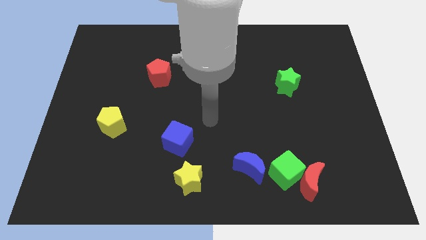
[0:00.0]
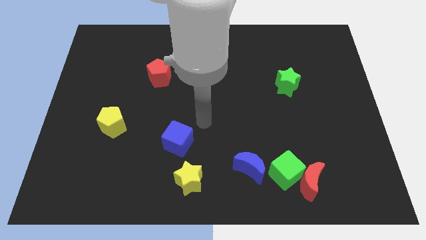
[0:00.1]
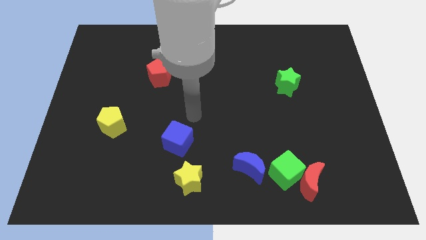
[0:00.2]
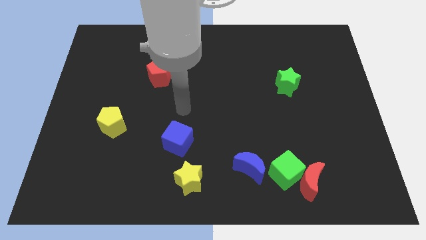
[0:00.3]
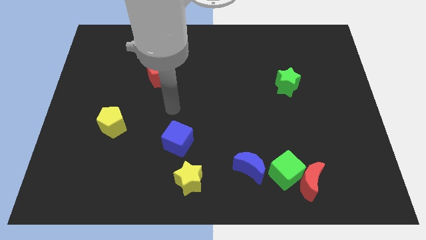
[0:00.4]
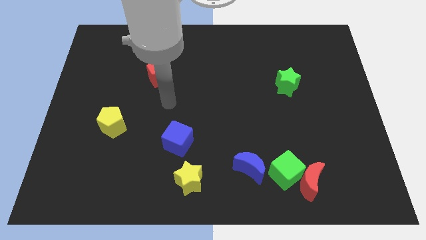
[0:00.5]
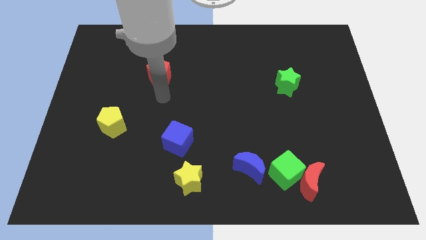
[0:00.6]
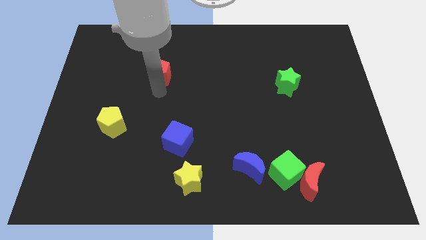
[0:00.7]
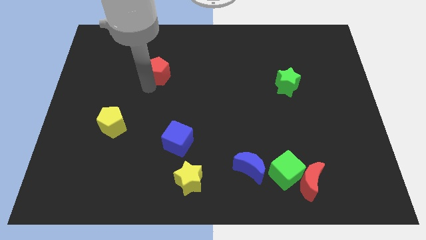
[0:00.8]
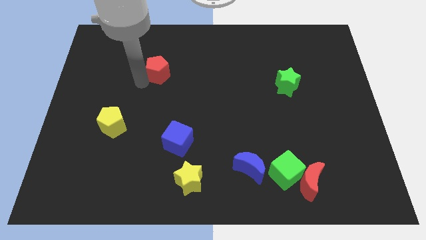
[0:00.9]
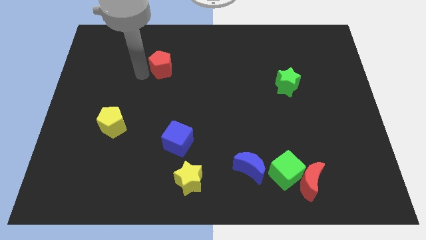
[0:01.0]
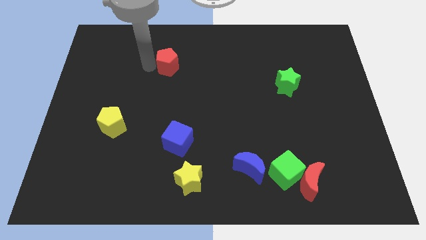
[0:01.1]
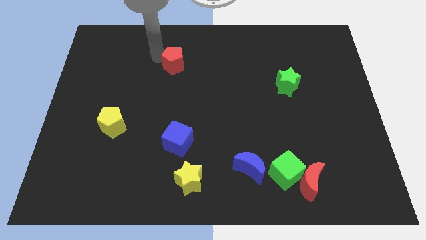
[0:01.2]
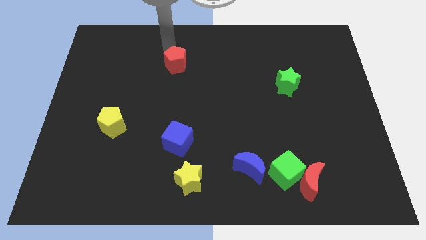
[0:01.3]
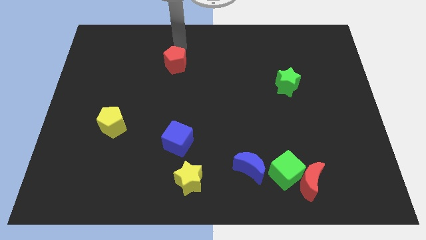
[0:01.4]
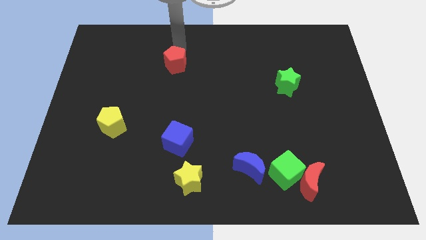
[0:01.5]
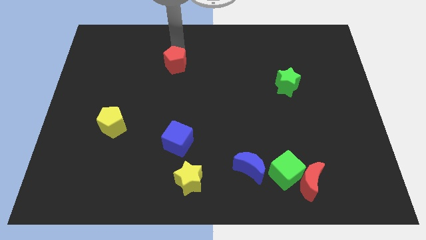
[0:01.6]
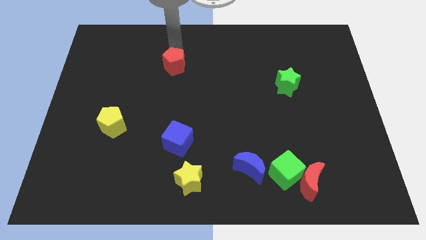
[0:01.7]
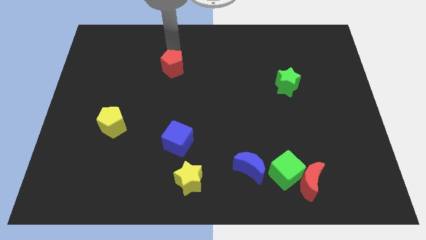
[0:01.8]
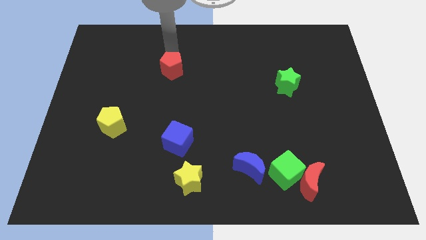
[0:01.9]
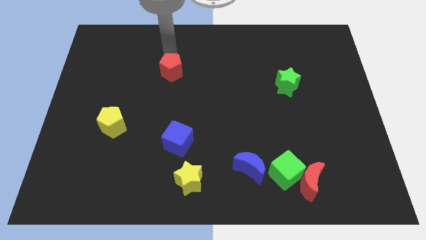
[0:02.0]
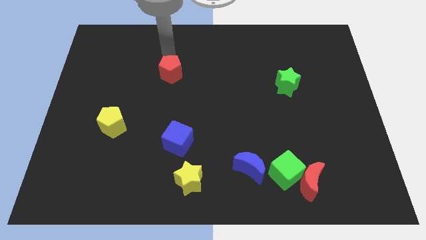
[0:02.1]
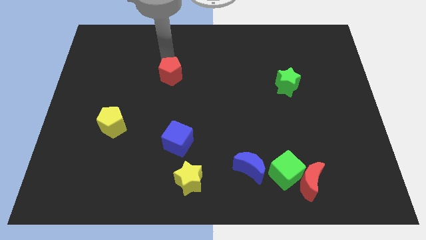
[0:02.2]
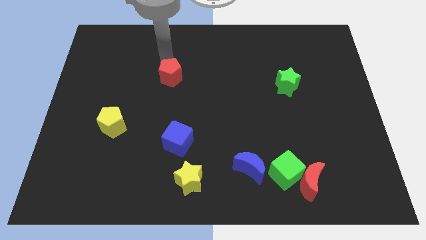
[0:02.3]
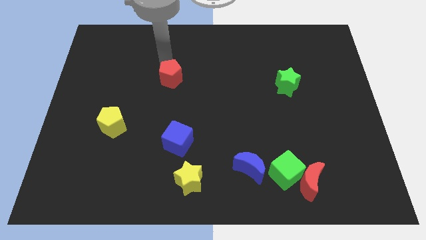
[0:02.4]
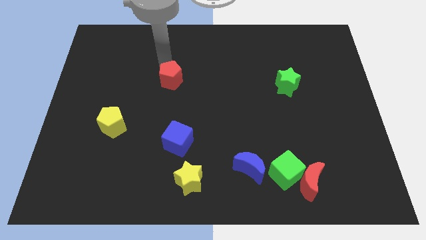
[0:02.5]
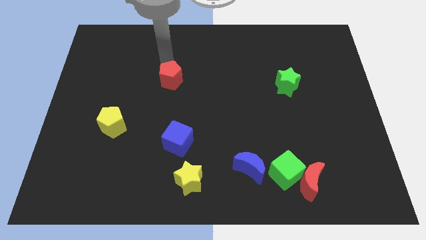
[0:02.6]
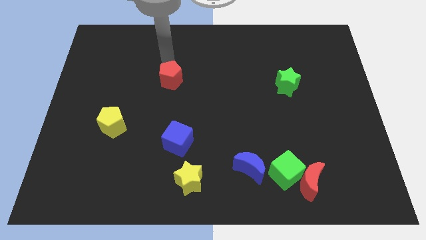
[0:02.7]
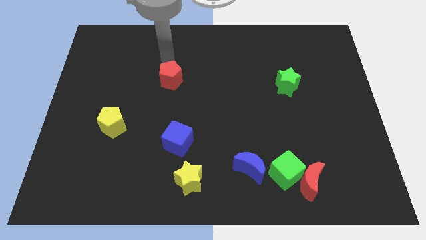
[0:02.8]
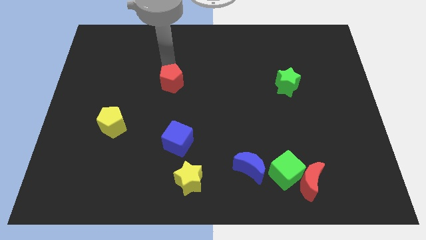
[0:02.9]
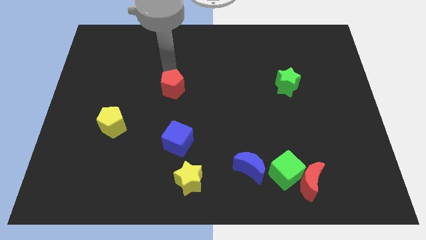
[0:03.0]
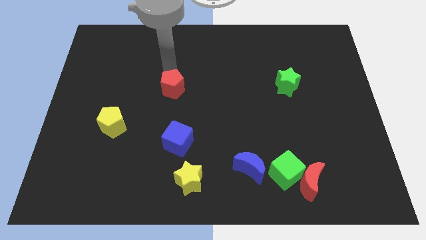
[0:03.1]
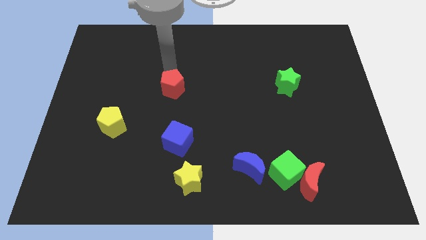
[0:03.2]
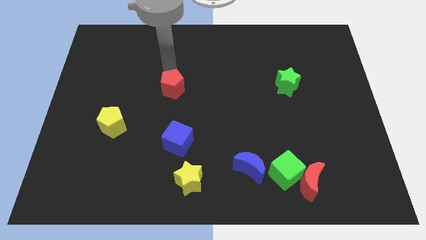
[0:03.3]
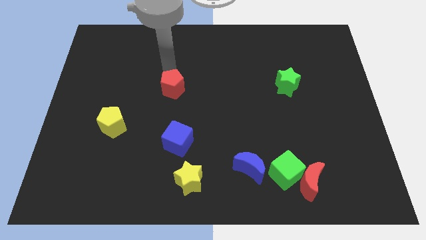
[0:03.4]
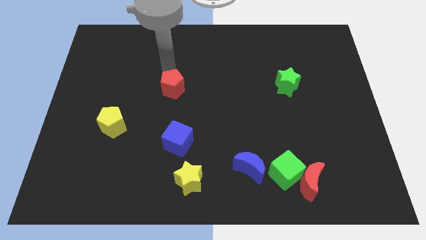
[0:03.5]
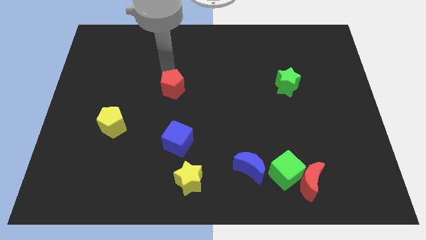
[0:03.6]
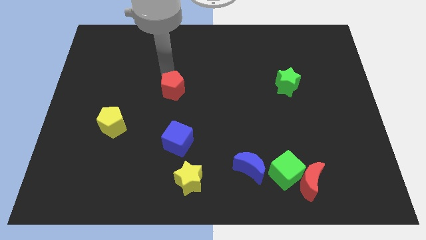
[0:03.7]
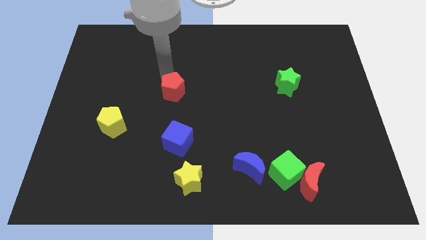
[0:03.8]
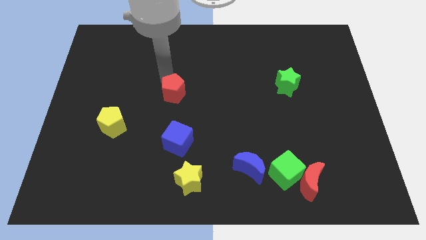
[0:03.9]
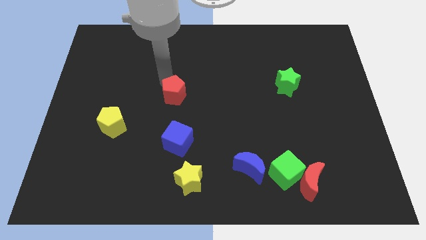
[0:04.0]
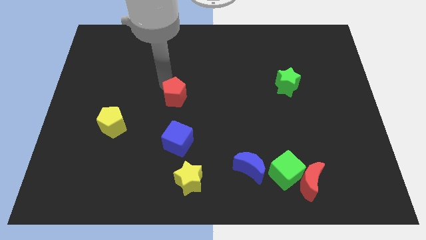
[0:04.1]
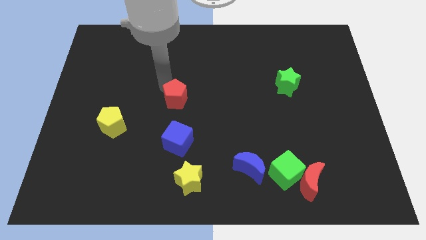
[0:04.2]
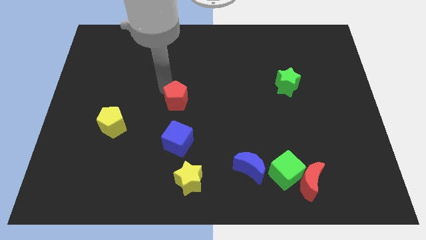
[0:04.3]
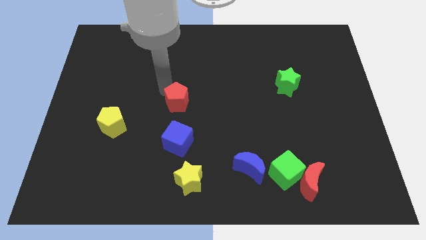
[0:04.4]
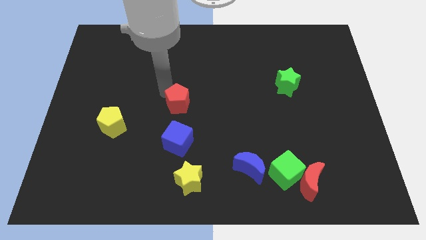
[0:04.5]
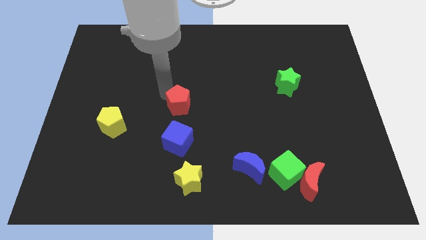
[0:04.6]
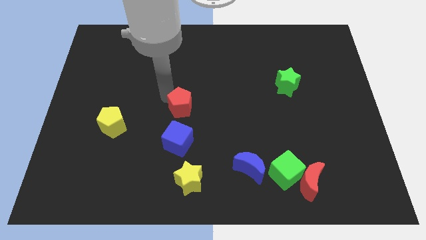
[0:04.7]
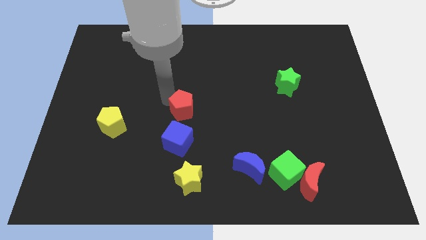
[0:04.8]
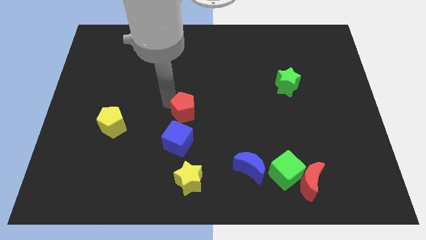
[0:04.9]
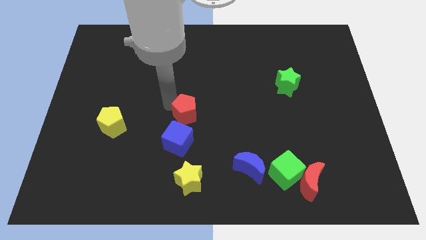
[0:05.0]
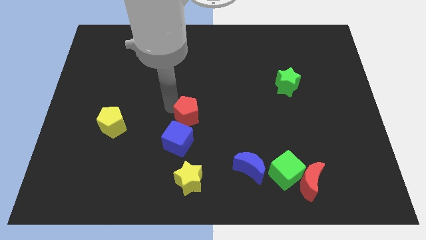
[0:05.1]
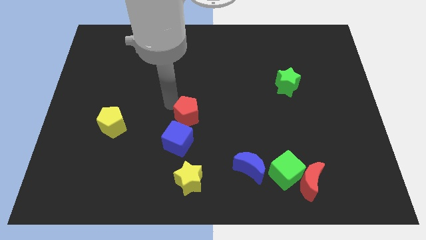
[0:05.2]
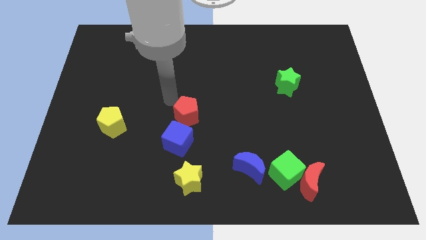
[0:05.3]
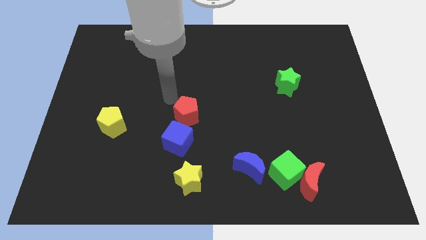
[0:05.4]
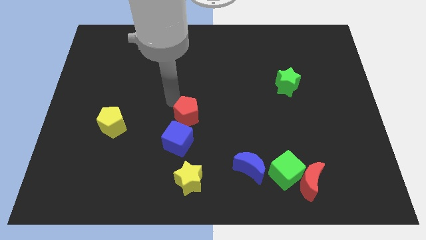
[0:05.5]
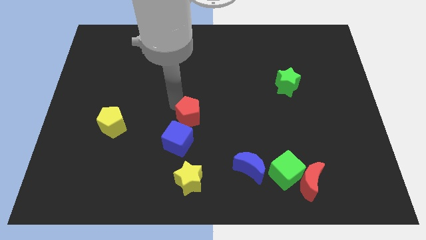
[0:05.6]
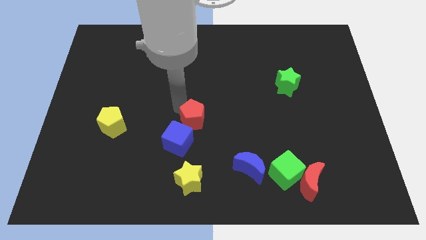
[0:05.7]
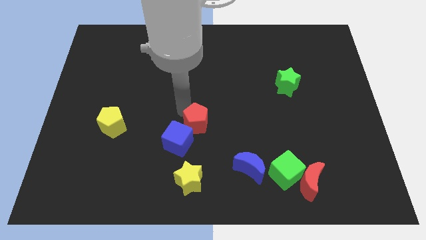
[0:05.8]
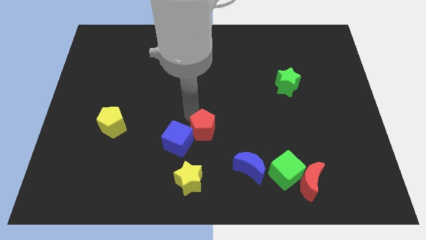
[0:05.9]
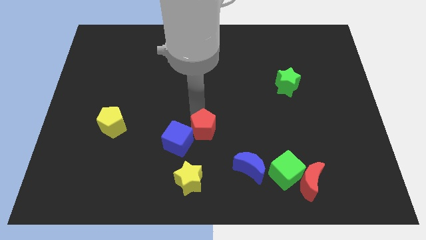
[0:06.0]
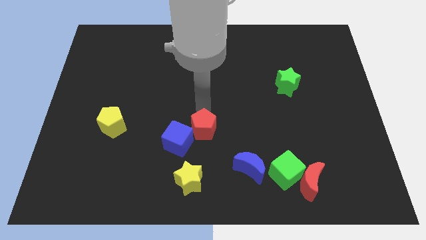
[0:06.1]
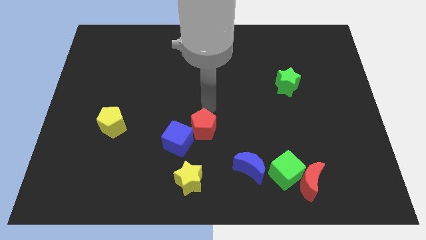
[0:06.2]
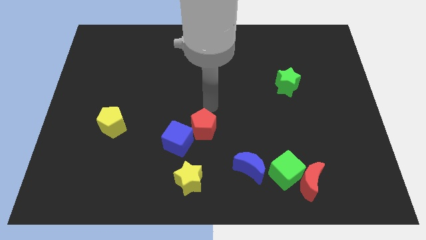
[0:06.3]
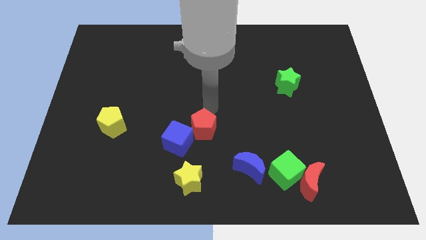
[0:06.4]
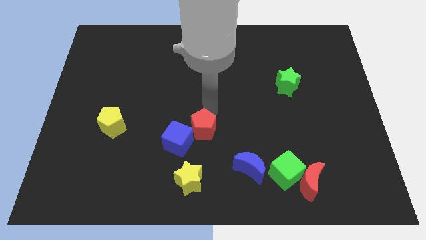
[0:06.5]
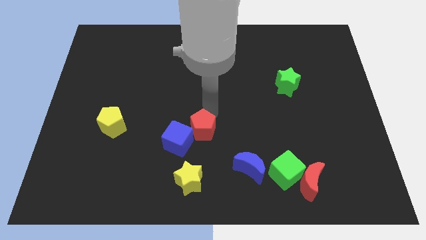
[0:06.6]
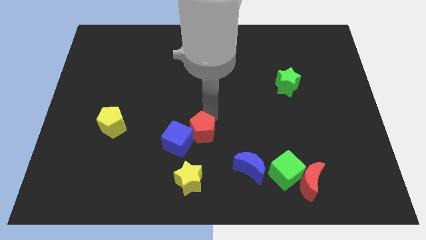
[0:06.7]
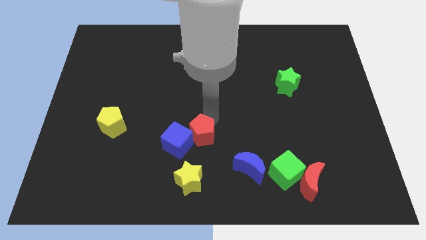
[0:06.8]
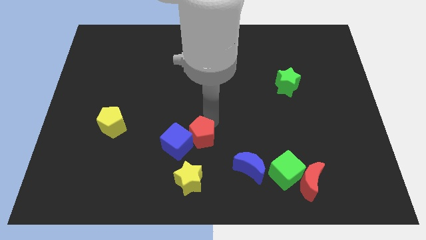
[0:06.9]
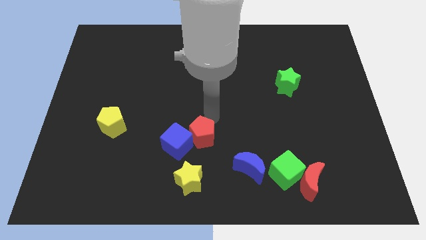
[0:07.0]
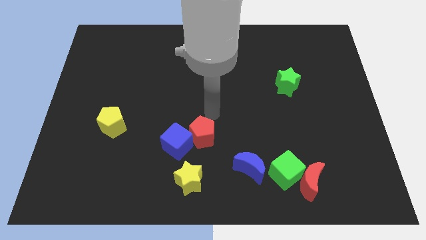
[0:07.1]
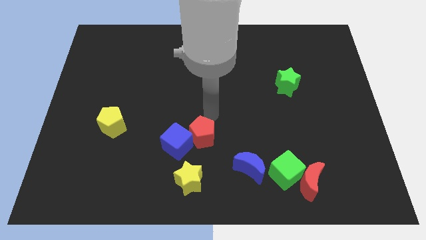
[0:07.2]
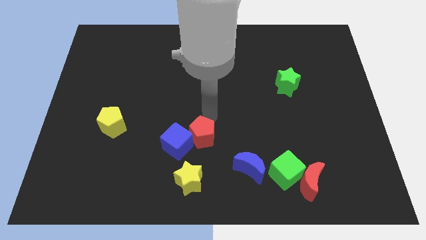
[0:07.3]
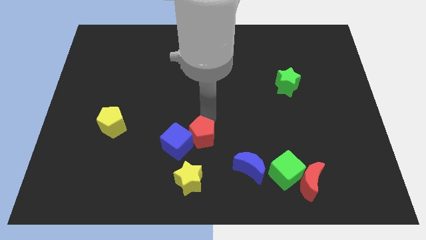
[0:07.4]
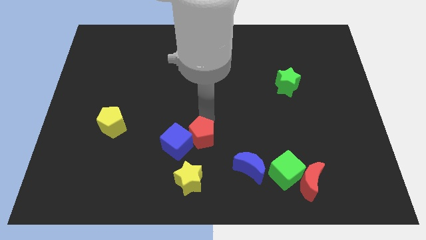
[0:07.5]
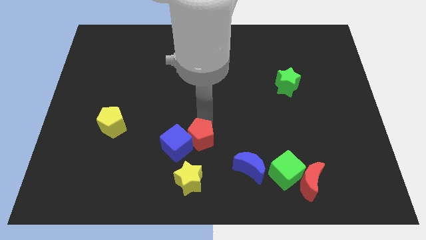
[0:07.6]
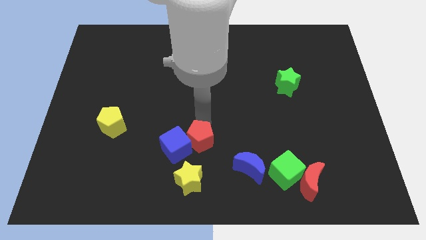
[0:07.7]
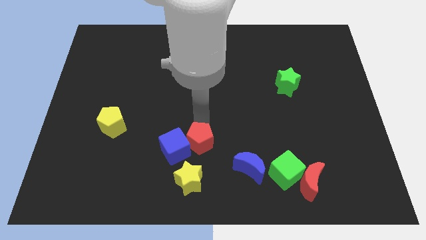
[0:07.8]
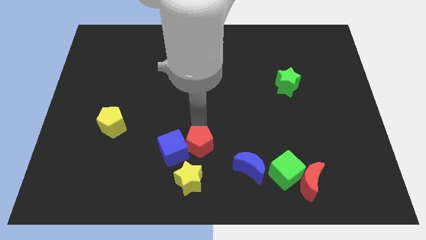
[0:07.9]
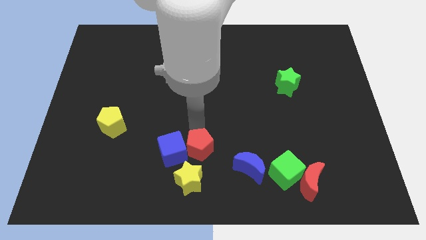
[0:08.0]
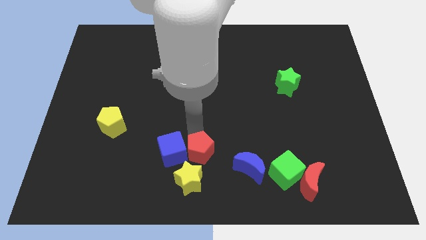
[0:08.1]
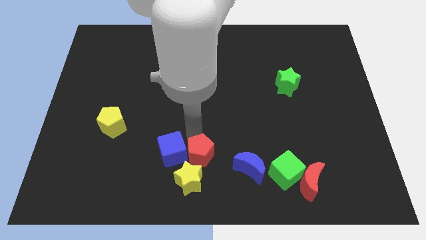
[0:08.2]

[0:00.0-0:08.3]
put the red pentagon close to the yellow star
